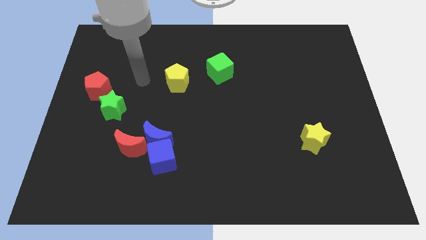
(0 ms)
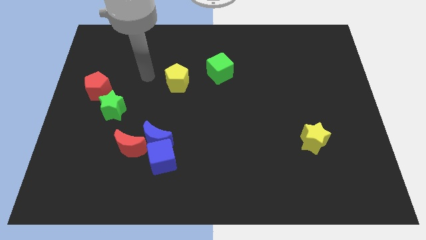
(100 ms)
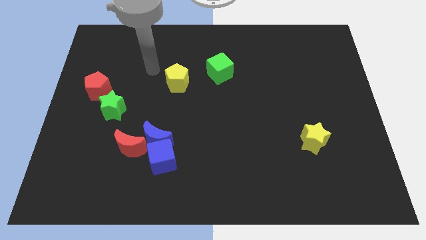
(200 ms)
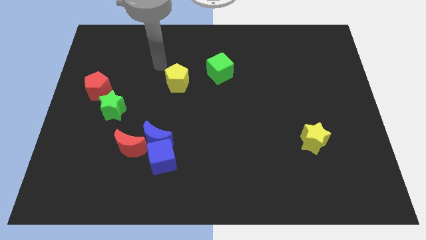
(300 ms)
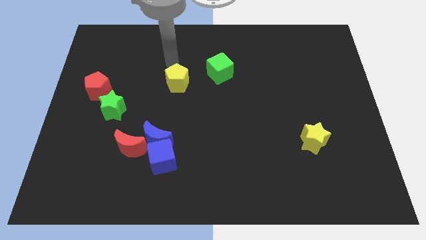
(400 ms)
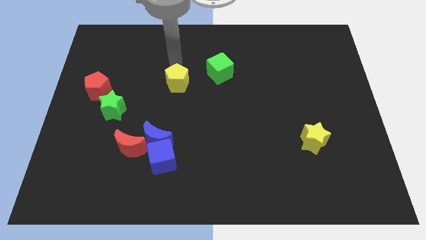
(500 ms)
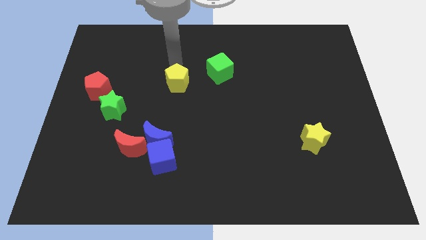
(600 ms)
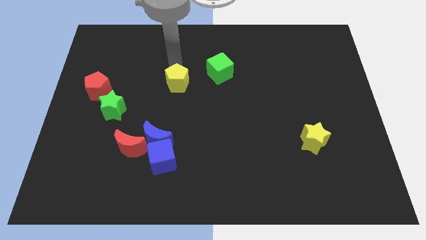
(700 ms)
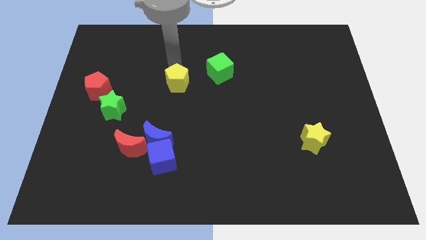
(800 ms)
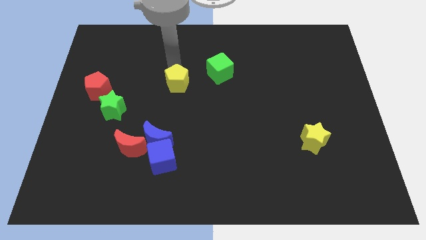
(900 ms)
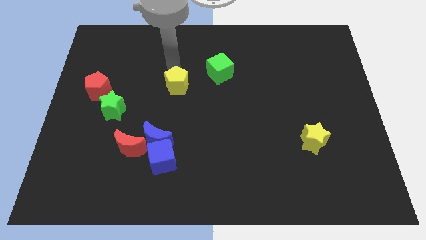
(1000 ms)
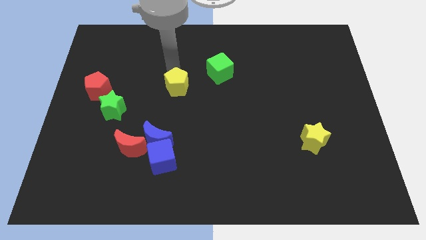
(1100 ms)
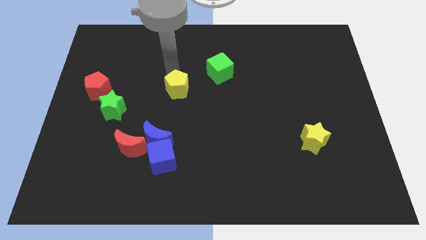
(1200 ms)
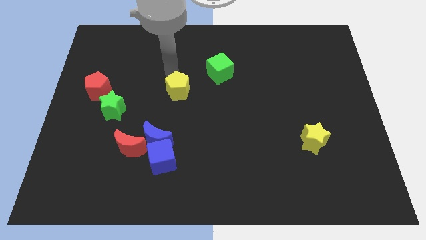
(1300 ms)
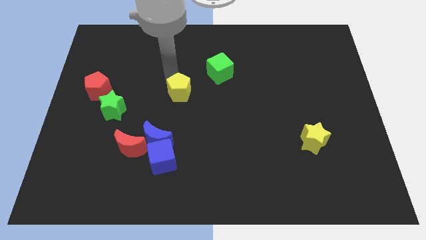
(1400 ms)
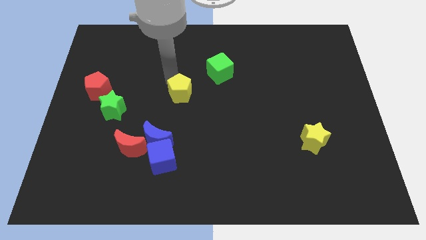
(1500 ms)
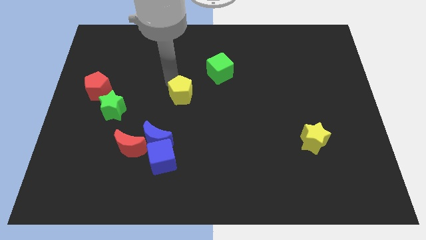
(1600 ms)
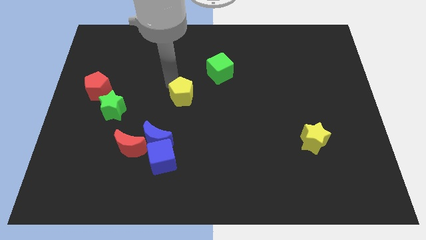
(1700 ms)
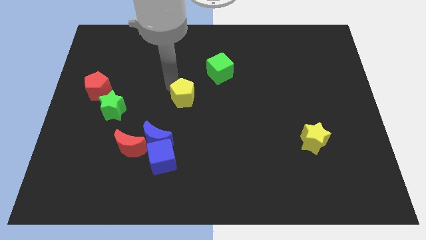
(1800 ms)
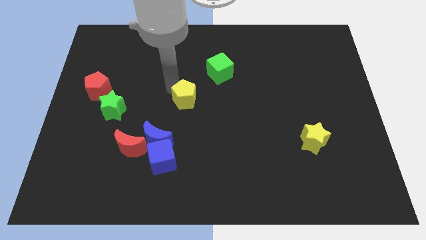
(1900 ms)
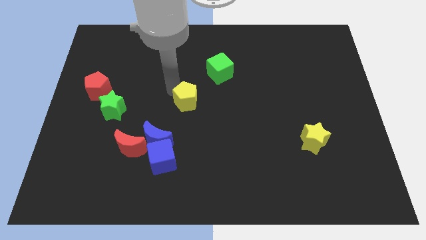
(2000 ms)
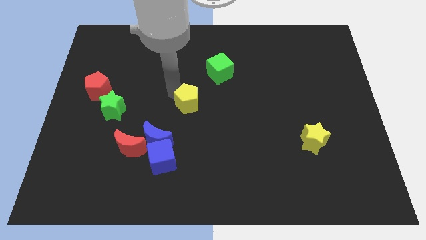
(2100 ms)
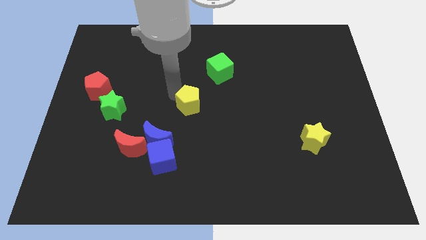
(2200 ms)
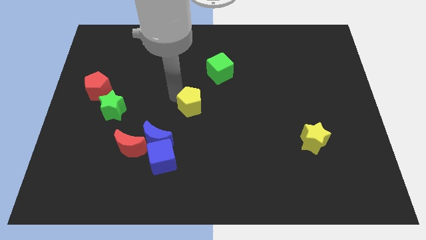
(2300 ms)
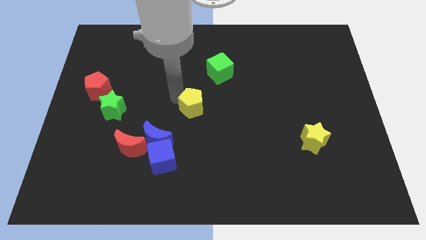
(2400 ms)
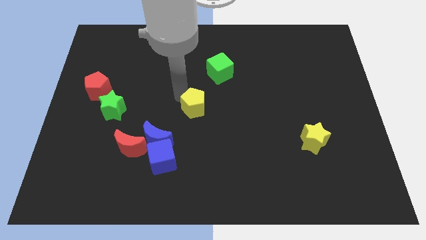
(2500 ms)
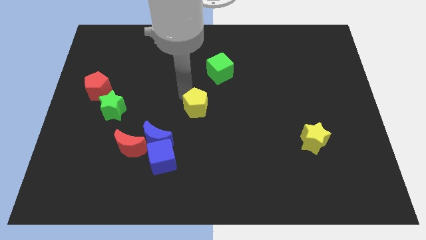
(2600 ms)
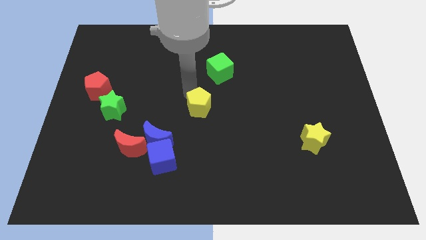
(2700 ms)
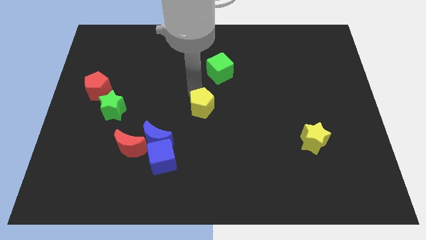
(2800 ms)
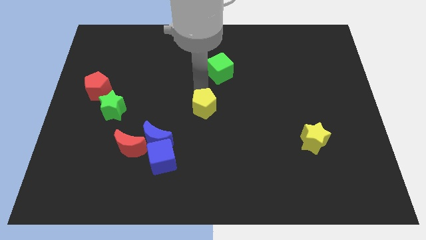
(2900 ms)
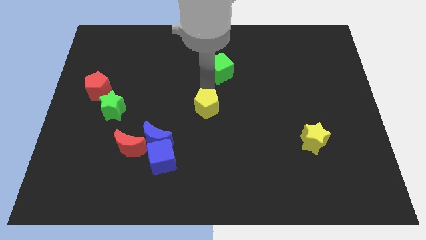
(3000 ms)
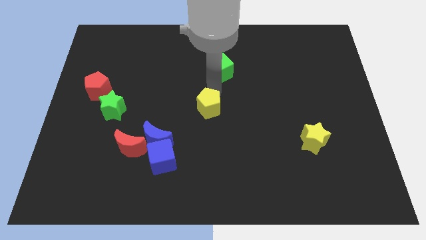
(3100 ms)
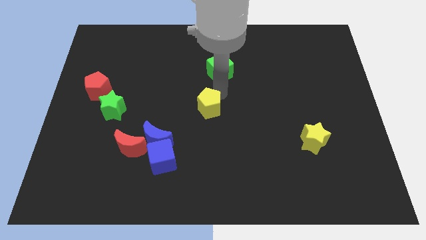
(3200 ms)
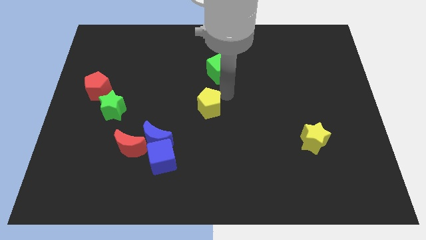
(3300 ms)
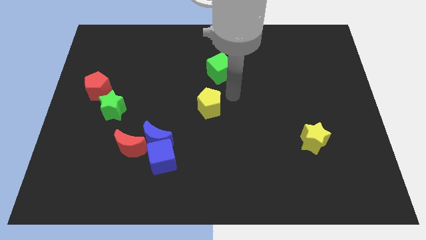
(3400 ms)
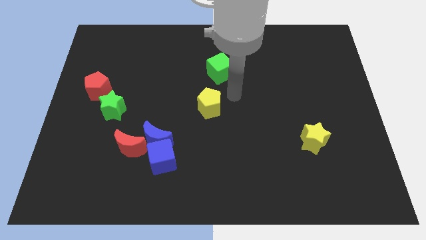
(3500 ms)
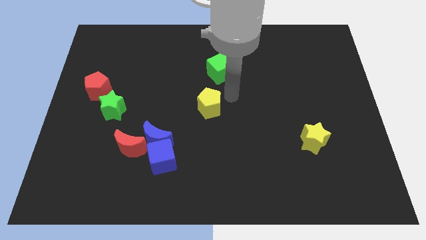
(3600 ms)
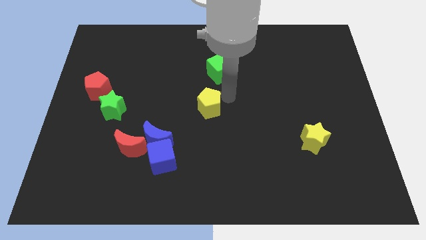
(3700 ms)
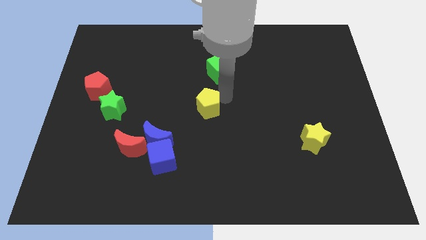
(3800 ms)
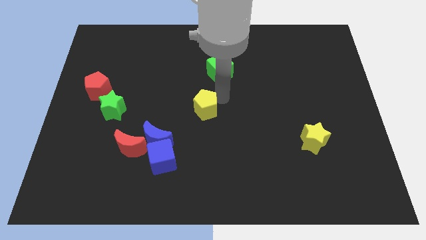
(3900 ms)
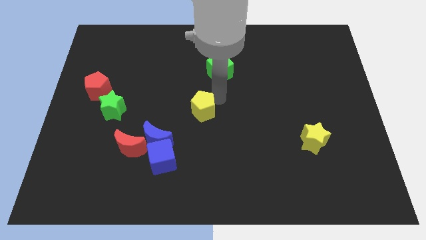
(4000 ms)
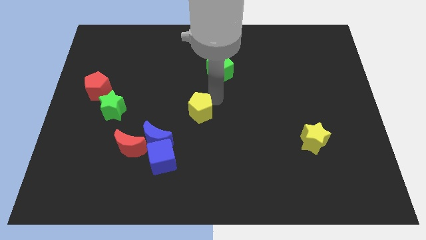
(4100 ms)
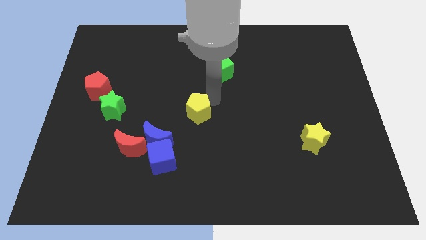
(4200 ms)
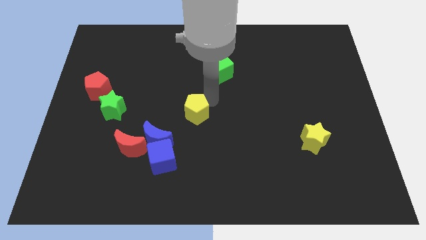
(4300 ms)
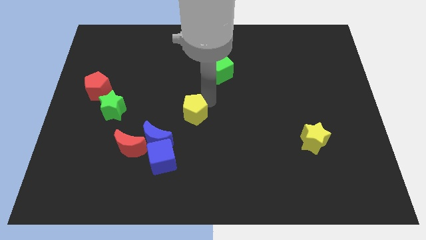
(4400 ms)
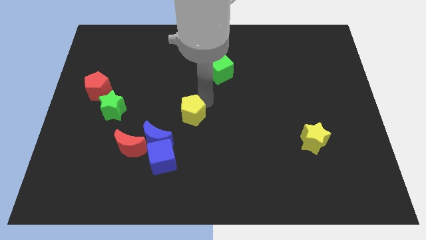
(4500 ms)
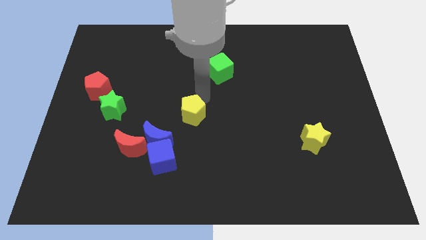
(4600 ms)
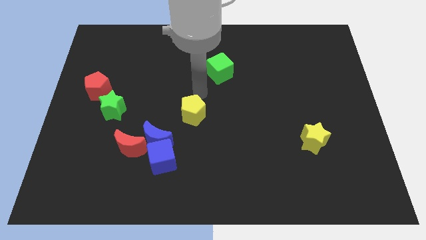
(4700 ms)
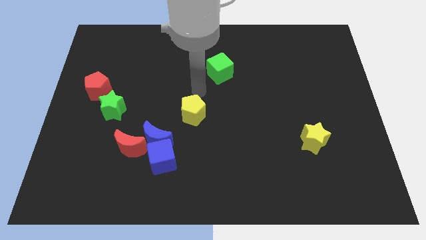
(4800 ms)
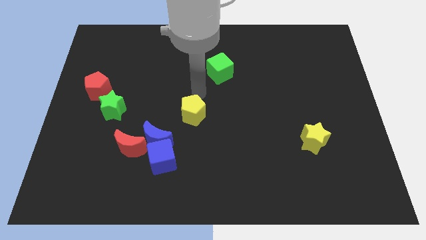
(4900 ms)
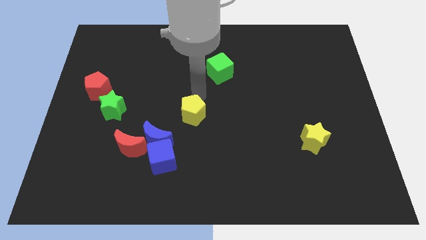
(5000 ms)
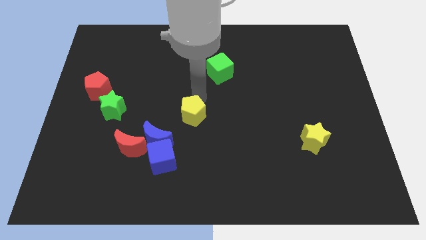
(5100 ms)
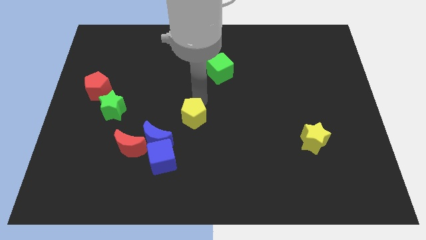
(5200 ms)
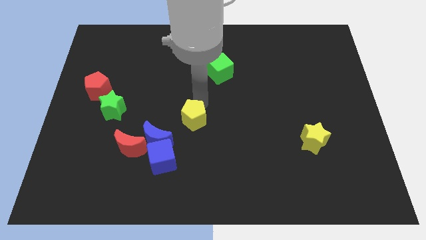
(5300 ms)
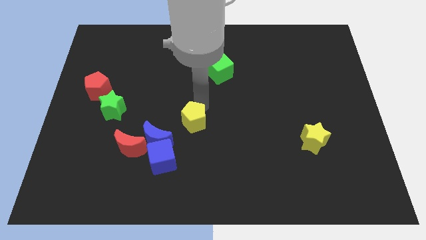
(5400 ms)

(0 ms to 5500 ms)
put the yellow pentagon to the top right side of the blue cube

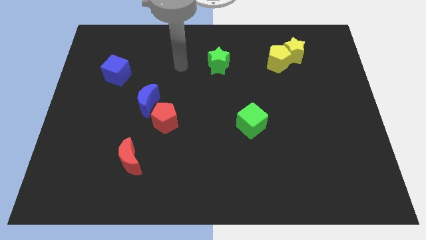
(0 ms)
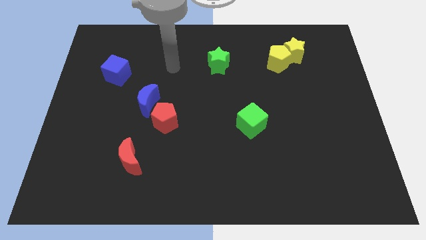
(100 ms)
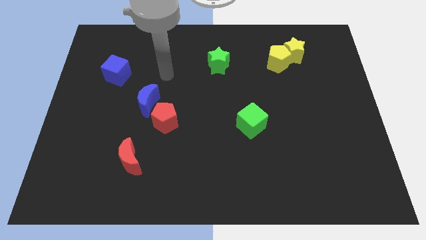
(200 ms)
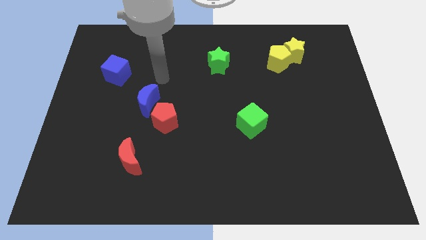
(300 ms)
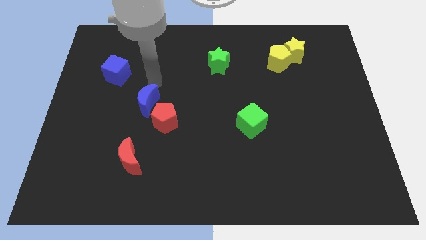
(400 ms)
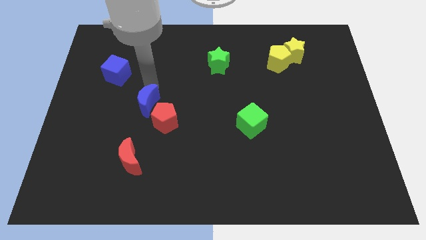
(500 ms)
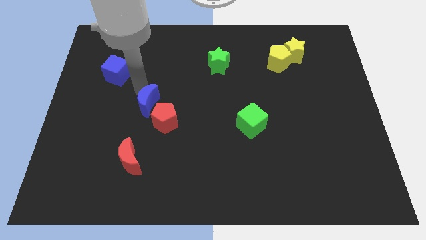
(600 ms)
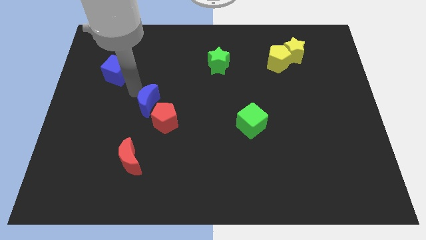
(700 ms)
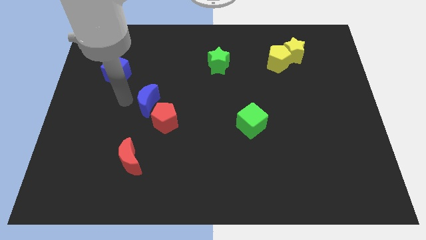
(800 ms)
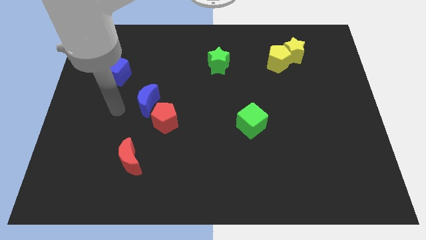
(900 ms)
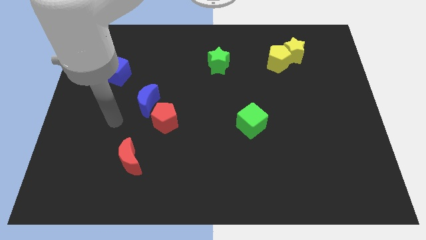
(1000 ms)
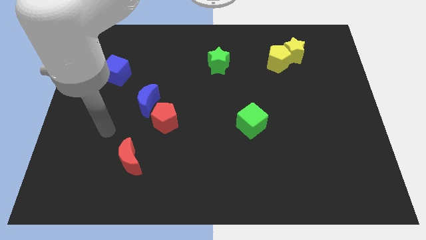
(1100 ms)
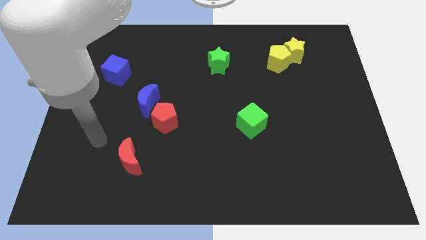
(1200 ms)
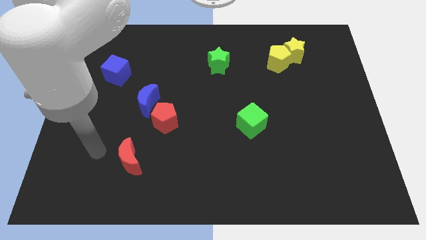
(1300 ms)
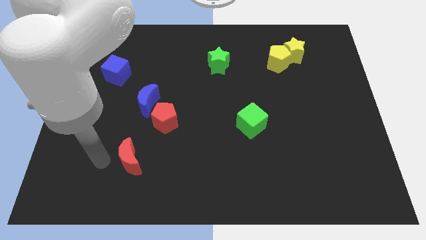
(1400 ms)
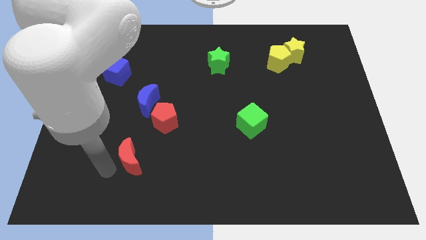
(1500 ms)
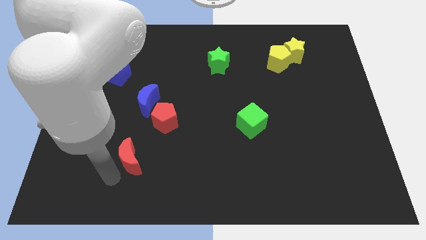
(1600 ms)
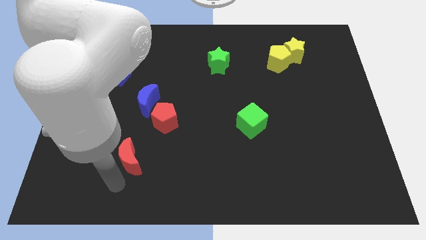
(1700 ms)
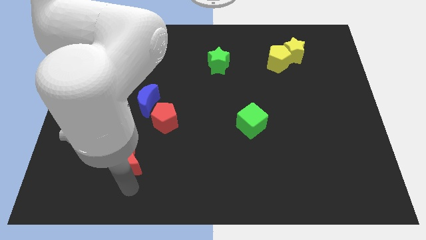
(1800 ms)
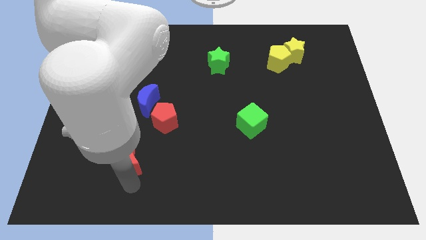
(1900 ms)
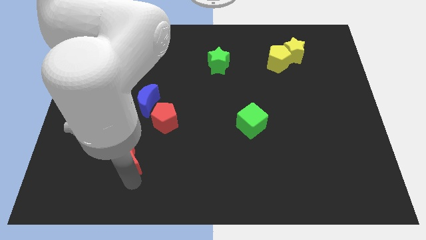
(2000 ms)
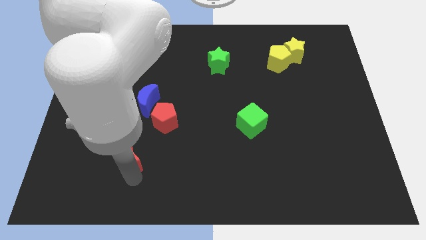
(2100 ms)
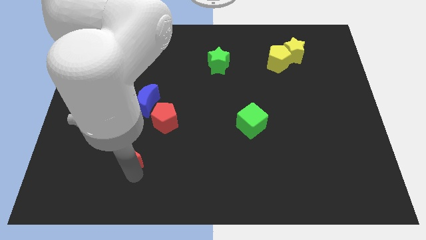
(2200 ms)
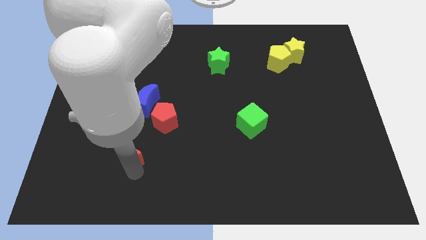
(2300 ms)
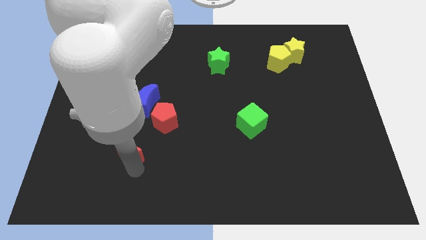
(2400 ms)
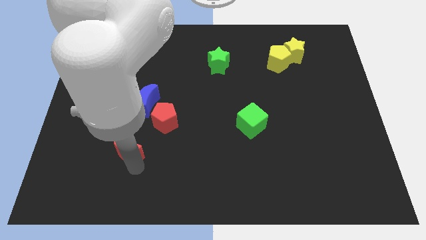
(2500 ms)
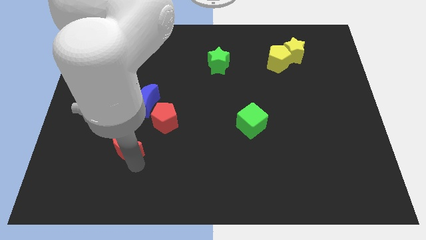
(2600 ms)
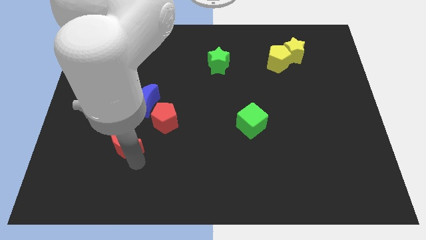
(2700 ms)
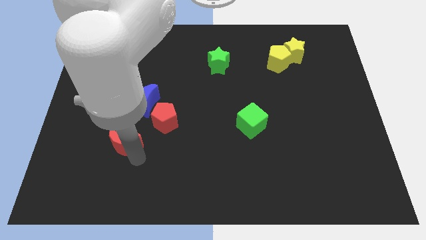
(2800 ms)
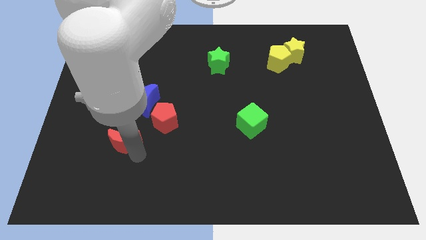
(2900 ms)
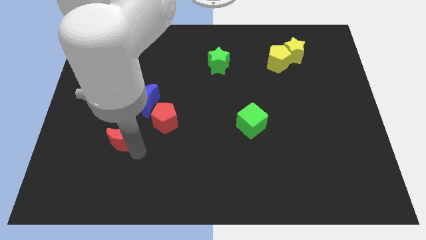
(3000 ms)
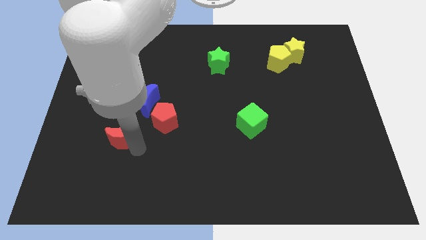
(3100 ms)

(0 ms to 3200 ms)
move the red moon diagonally down and to the left of the blue moon
